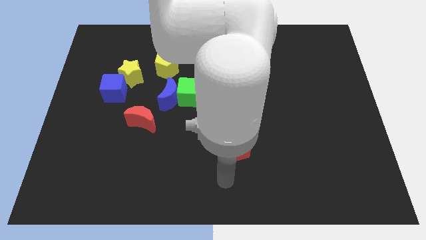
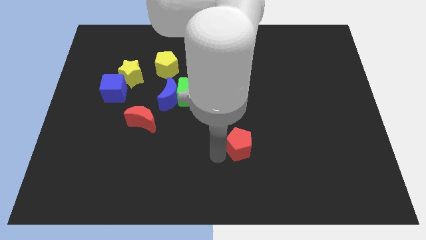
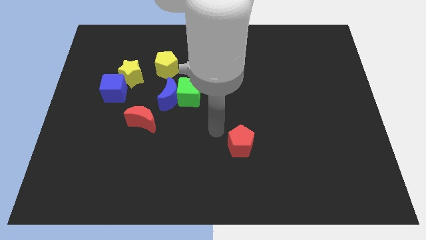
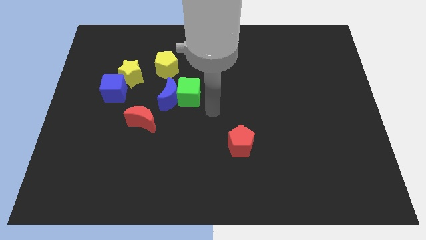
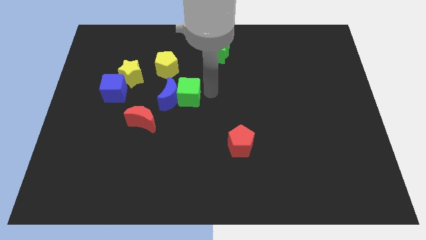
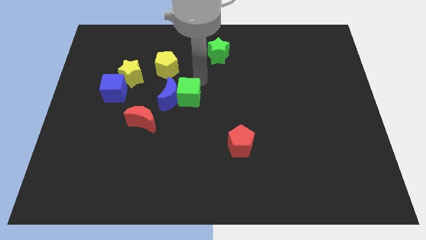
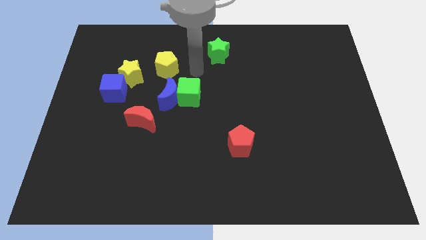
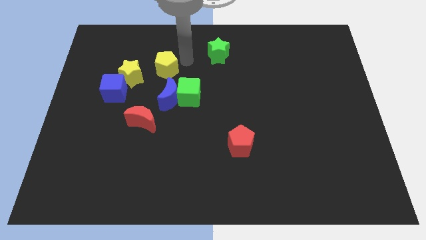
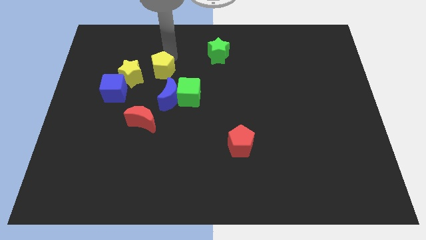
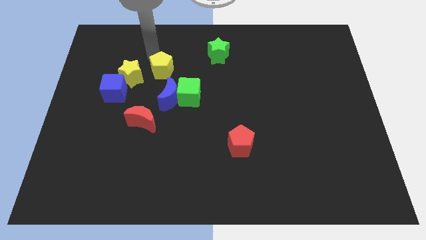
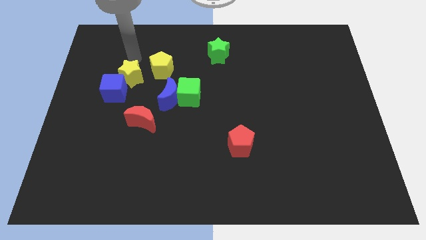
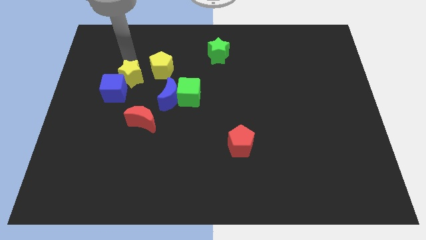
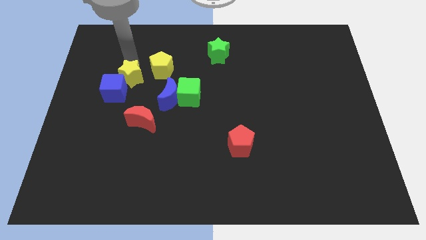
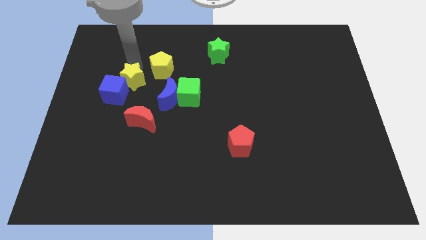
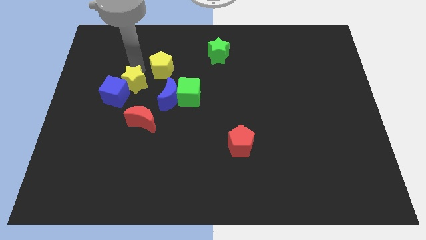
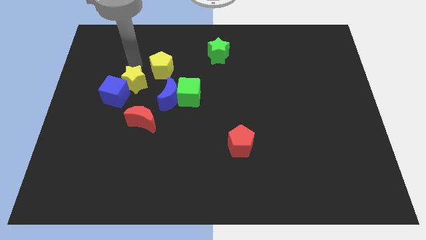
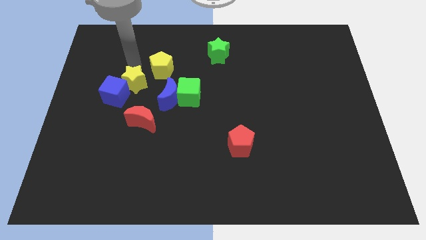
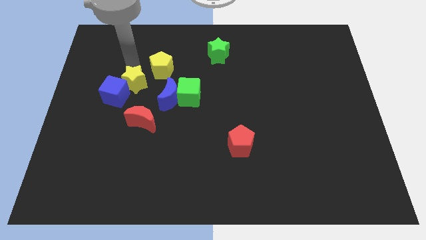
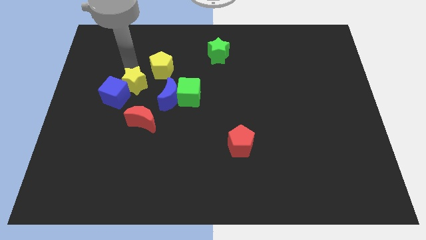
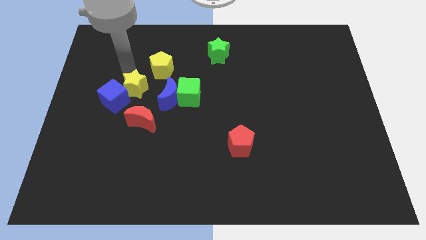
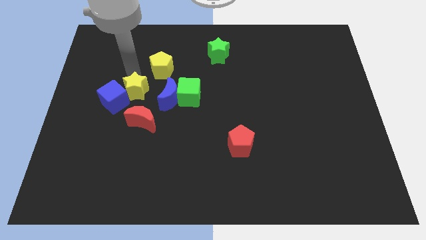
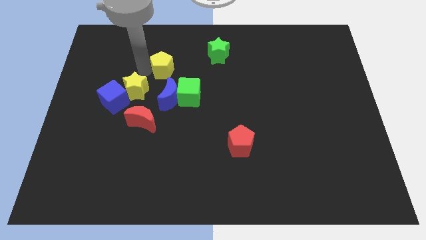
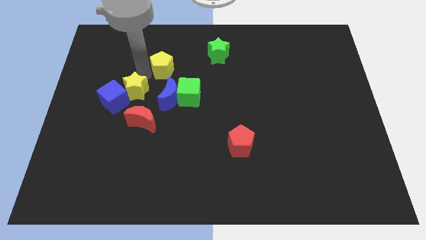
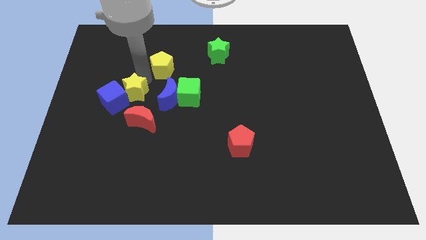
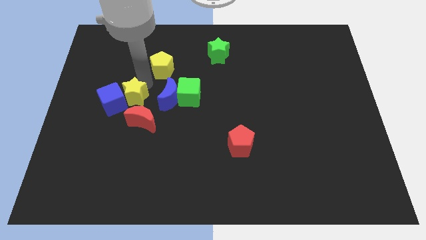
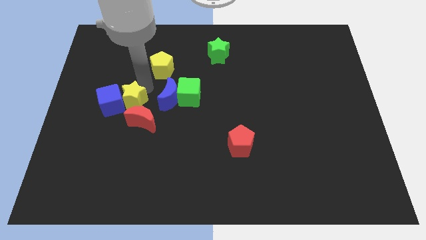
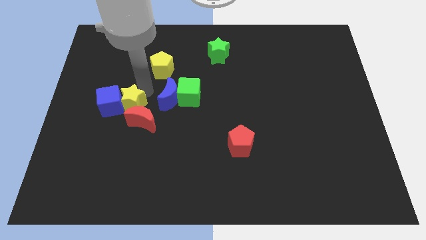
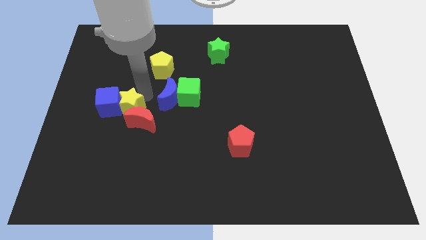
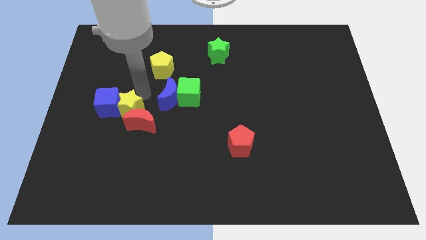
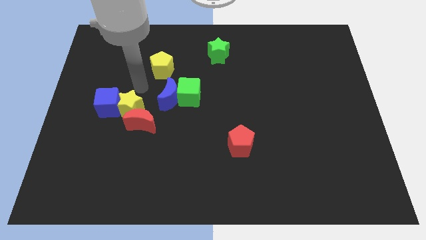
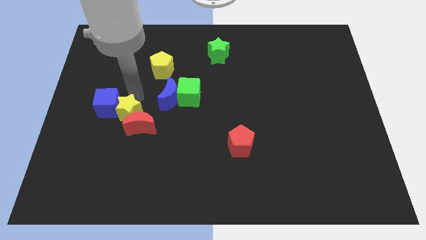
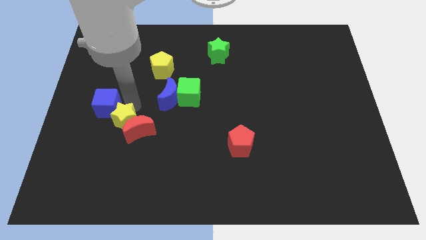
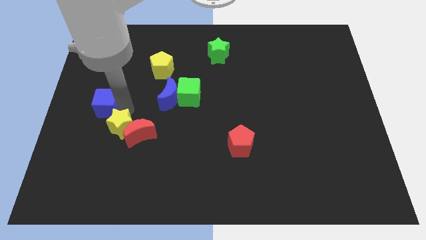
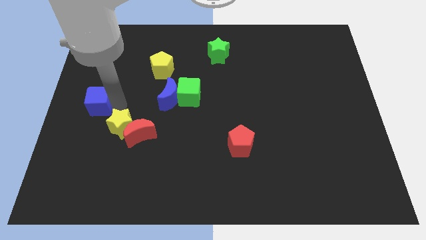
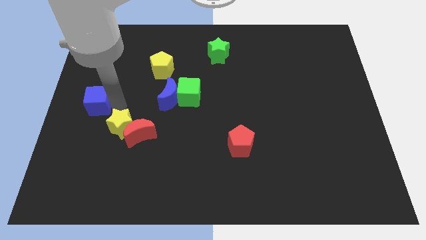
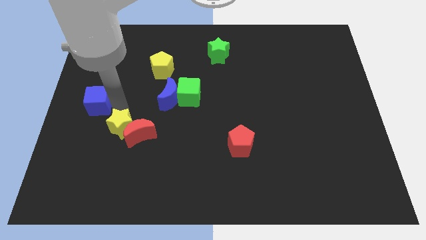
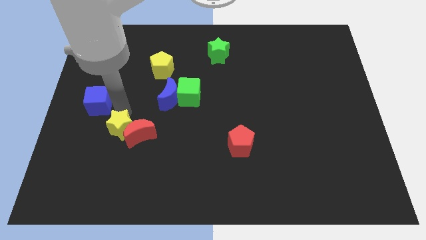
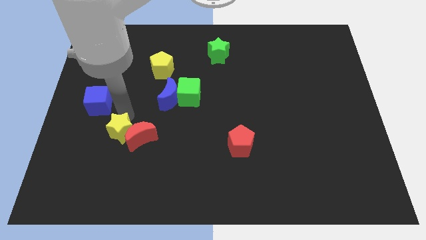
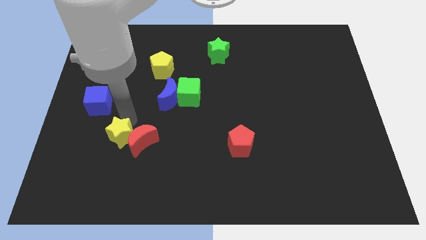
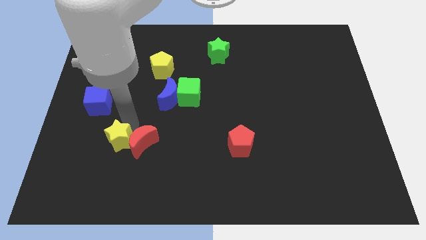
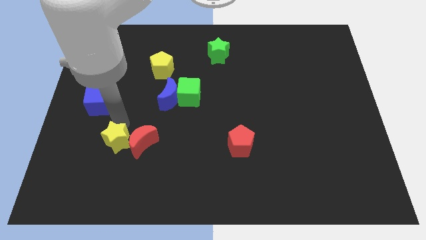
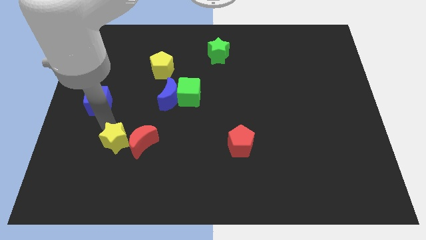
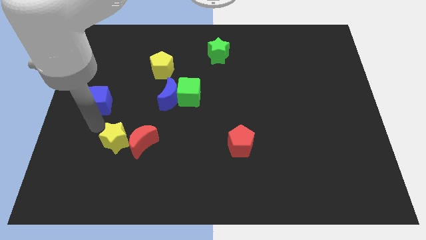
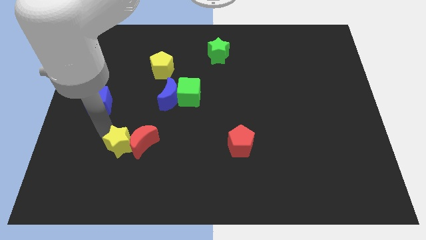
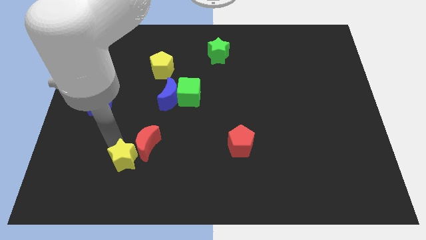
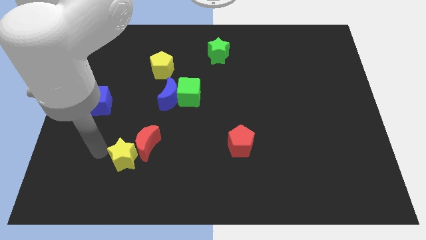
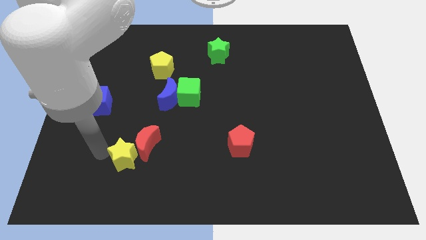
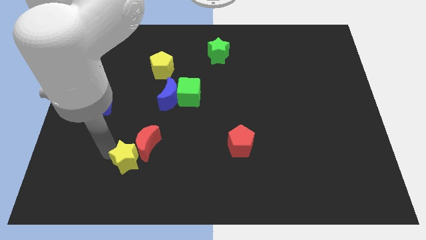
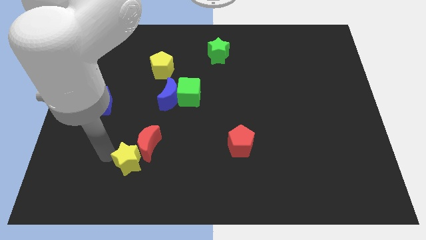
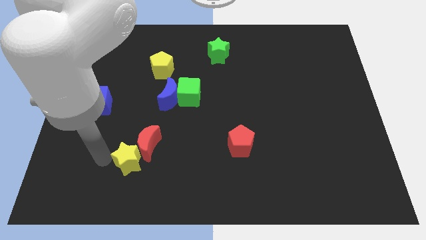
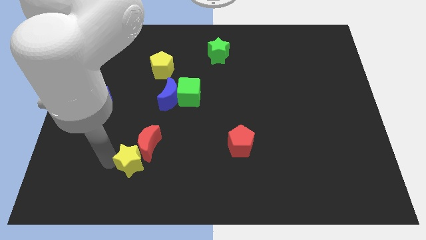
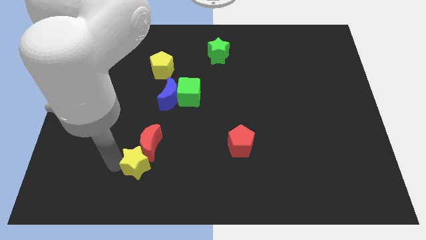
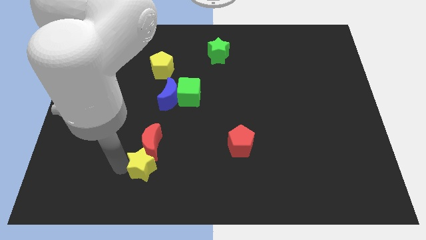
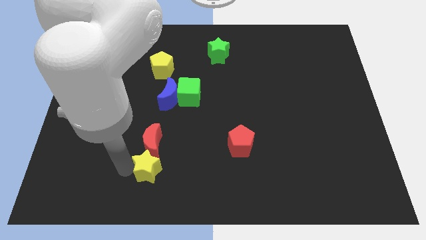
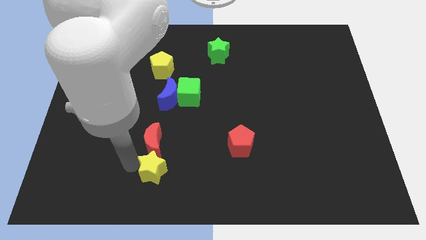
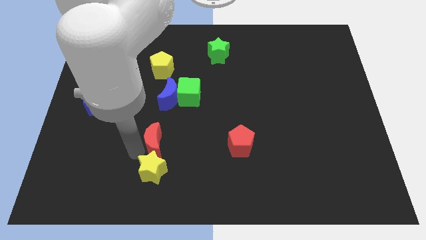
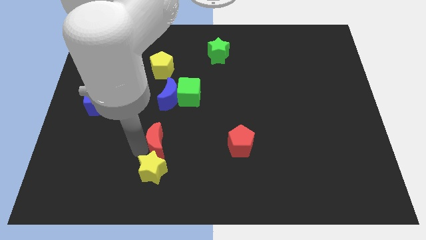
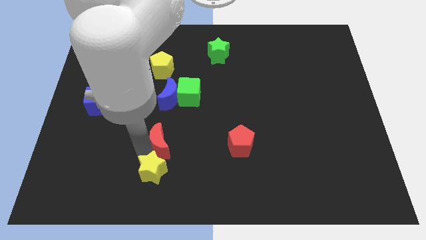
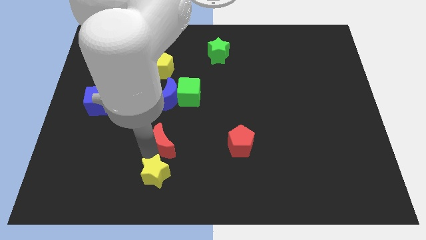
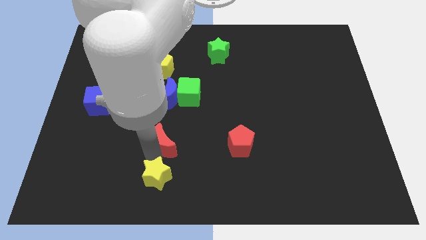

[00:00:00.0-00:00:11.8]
move the yellow star to the bottom
